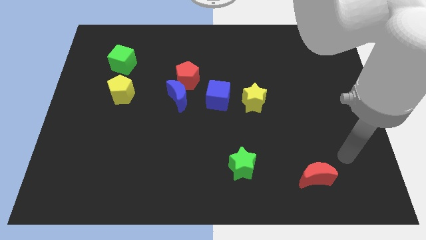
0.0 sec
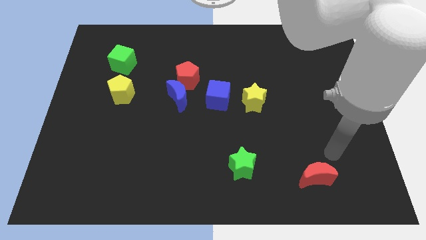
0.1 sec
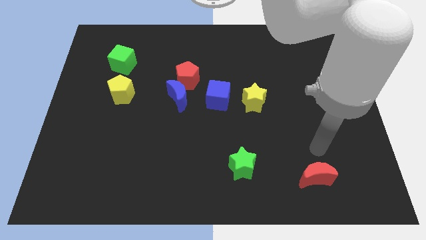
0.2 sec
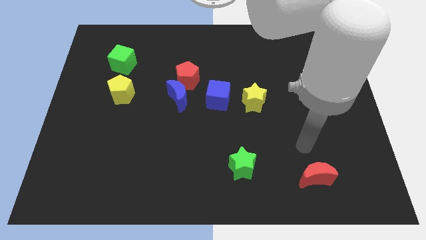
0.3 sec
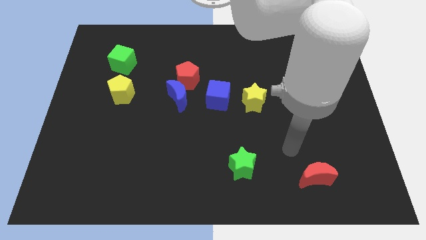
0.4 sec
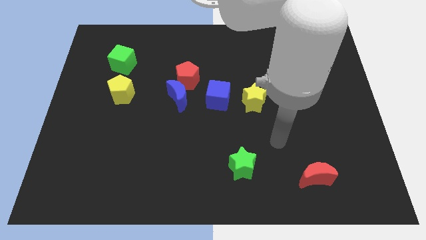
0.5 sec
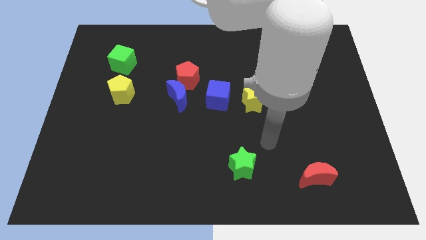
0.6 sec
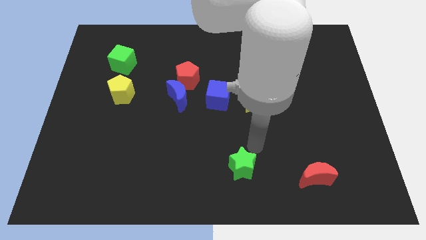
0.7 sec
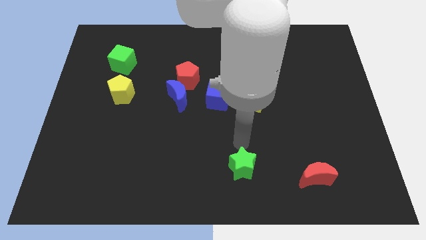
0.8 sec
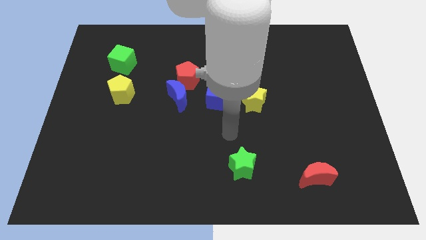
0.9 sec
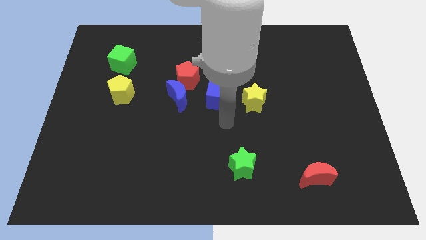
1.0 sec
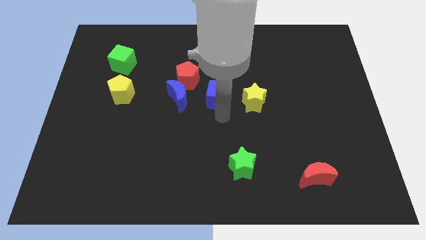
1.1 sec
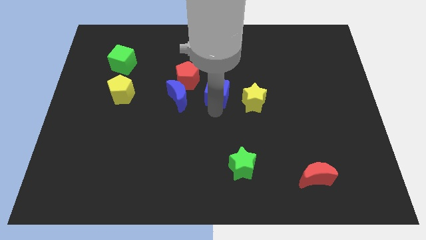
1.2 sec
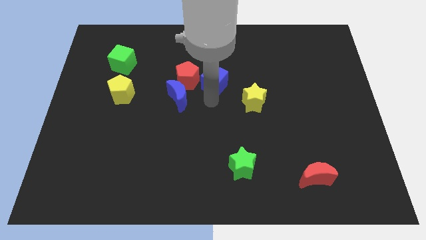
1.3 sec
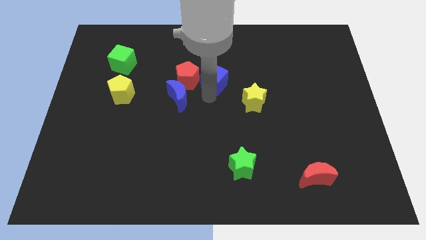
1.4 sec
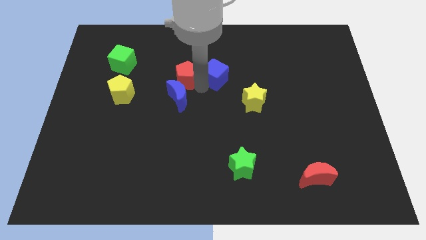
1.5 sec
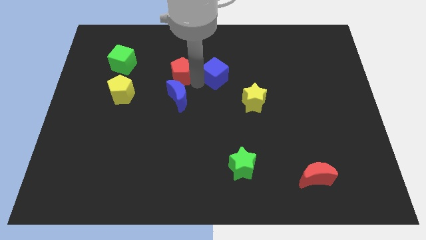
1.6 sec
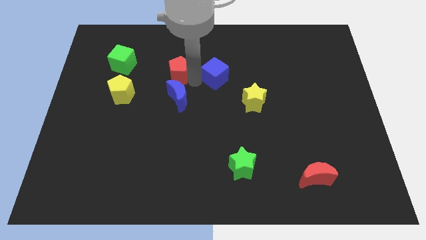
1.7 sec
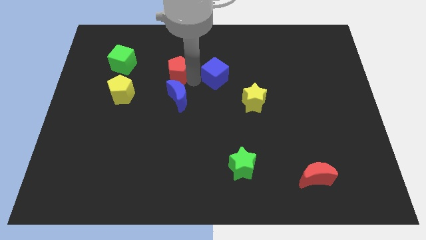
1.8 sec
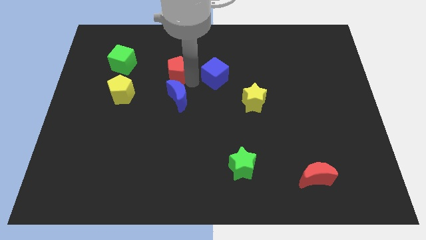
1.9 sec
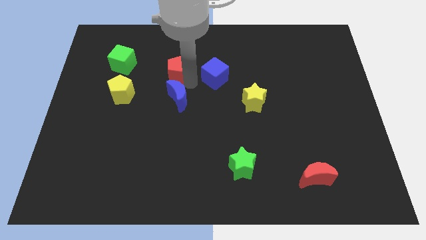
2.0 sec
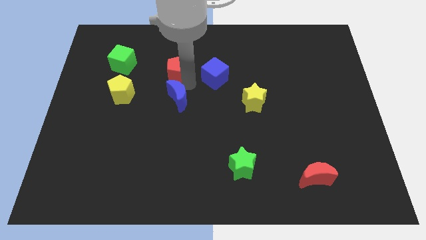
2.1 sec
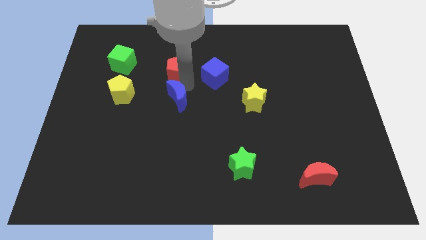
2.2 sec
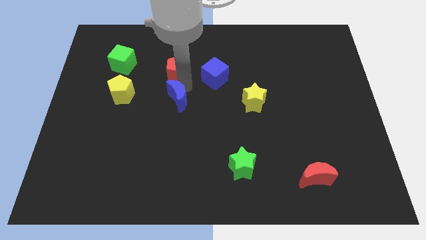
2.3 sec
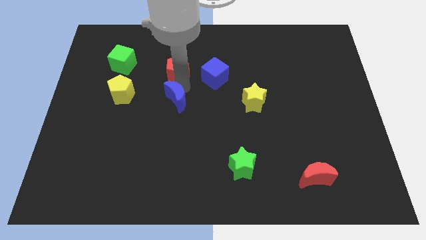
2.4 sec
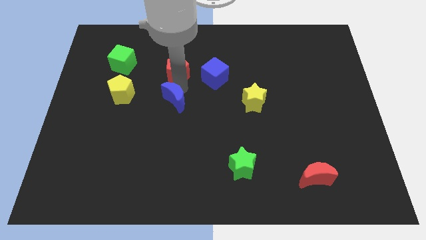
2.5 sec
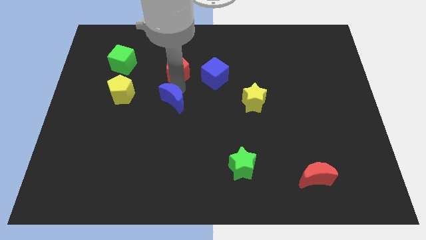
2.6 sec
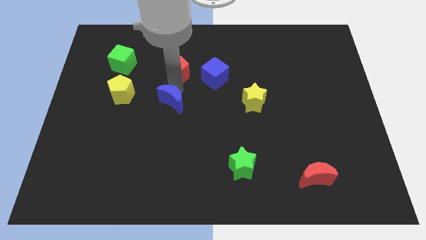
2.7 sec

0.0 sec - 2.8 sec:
separate the blue moon from the red pentagon and blue cube

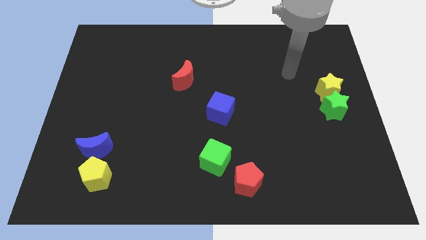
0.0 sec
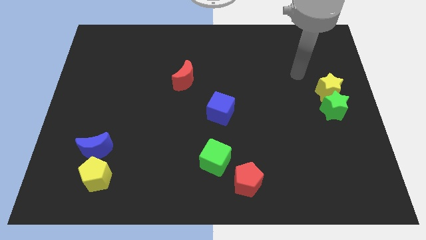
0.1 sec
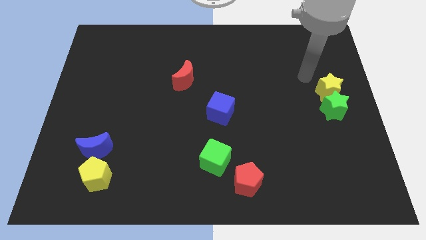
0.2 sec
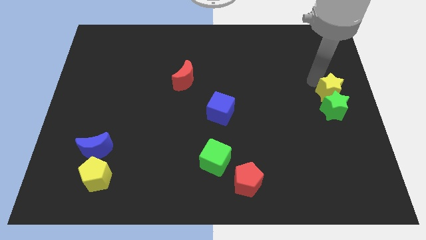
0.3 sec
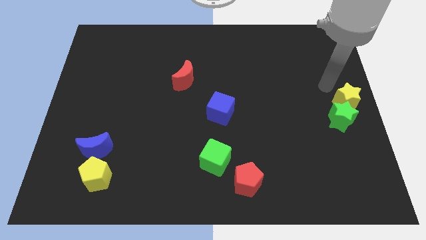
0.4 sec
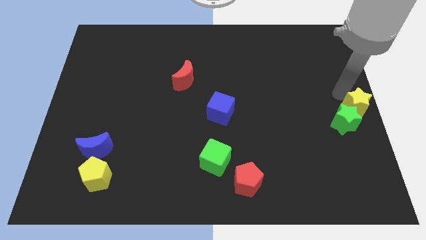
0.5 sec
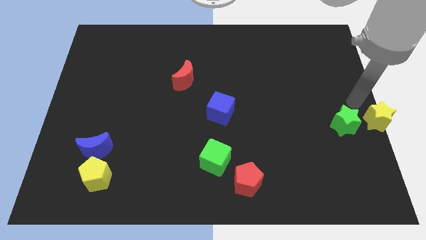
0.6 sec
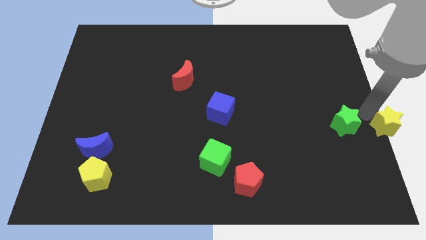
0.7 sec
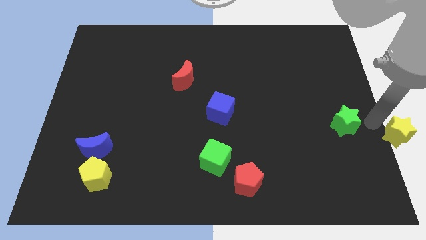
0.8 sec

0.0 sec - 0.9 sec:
separate the green star from the yellow star

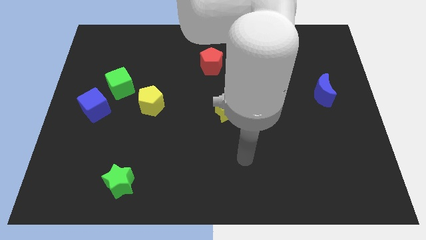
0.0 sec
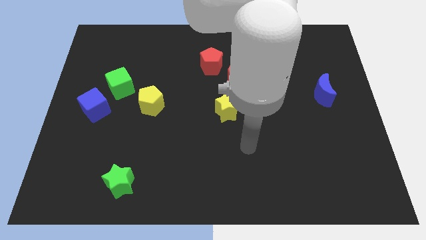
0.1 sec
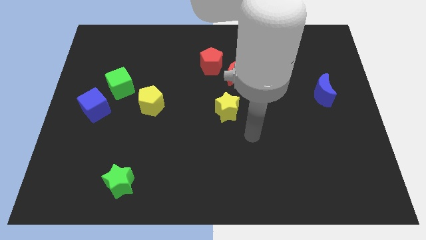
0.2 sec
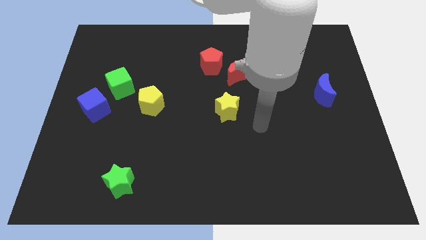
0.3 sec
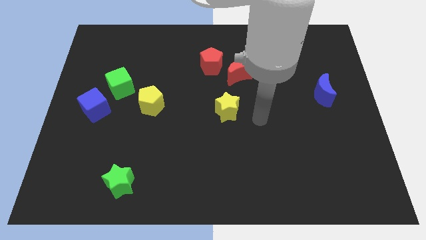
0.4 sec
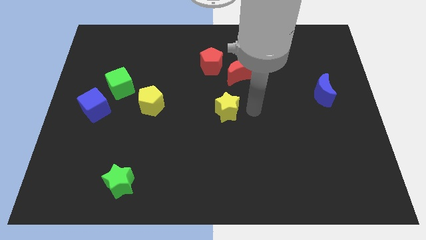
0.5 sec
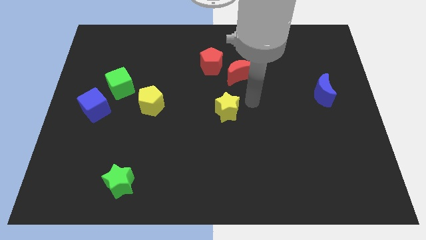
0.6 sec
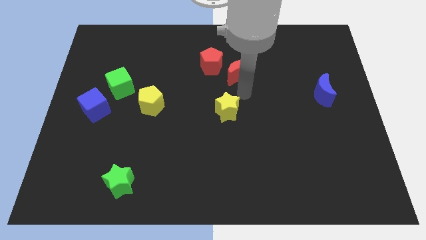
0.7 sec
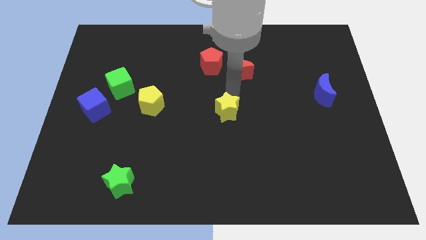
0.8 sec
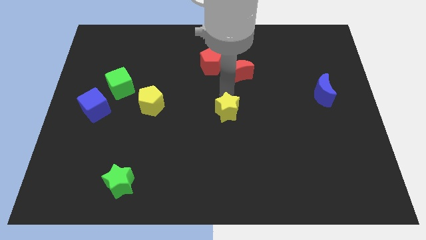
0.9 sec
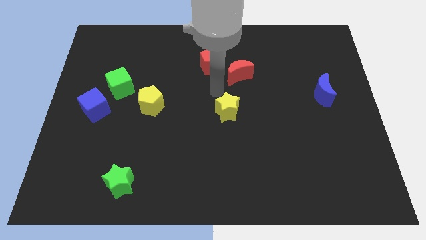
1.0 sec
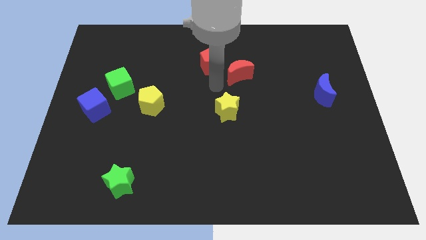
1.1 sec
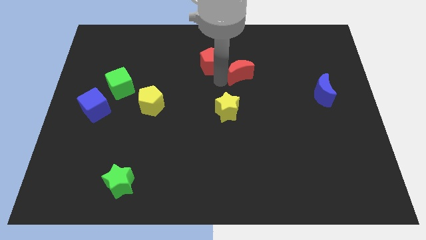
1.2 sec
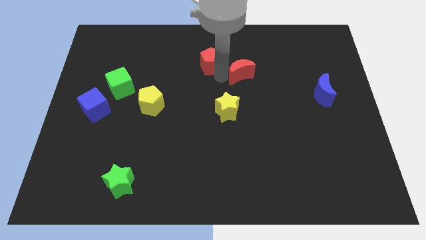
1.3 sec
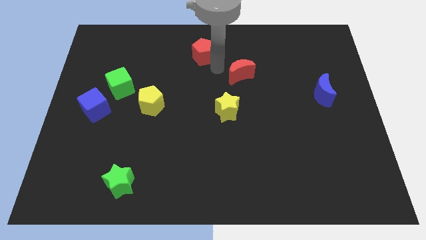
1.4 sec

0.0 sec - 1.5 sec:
pull the red moon apart from the red pentagon

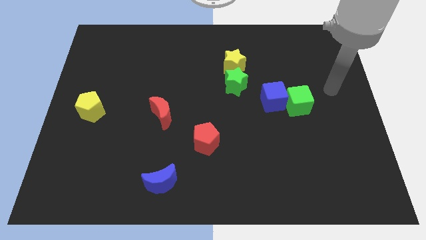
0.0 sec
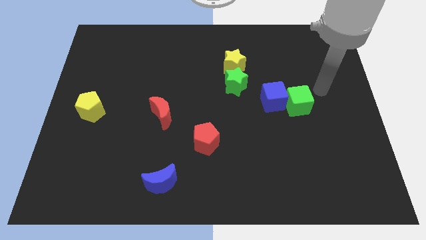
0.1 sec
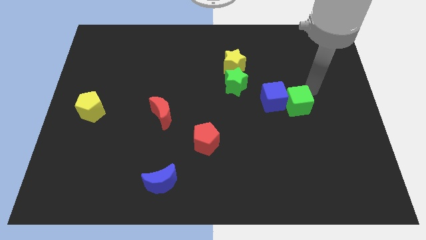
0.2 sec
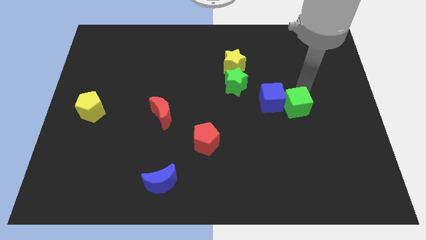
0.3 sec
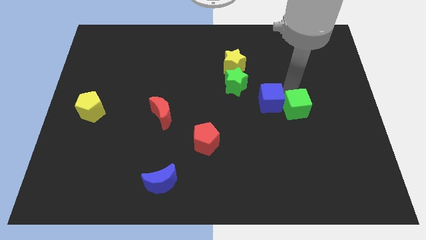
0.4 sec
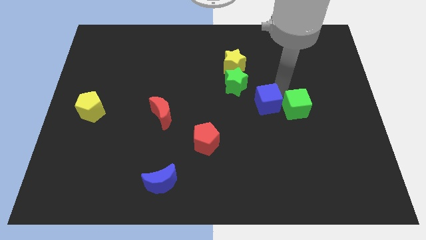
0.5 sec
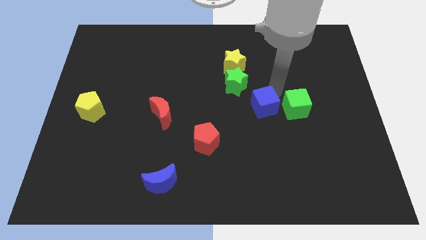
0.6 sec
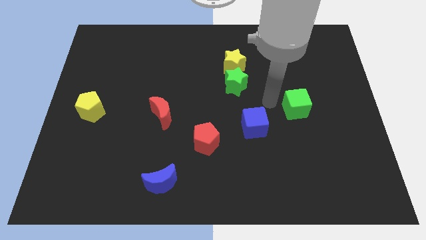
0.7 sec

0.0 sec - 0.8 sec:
move the green cube away from the blue cube

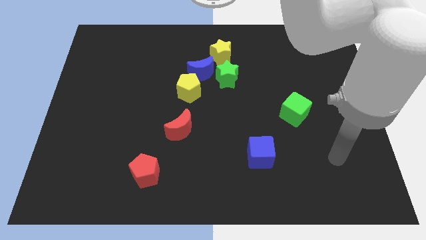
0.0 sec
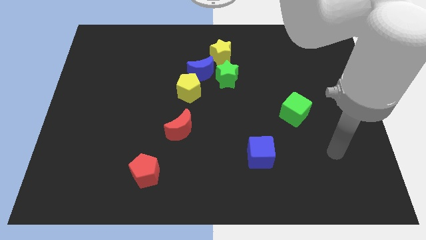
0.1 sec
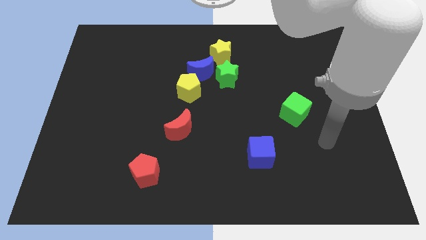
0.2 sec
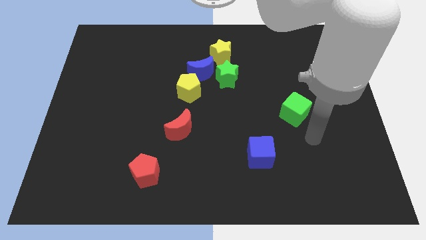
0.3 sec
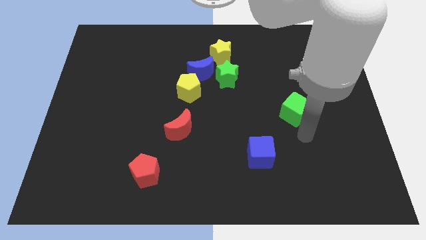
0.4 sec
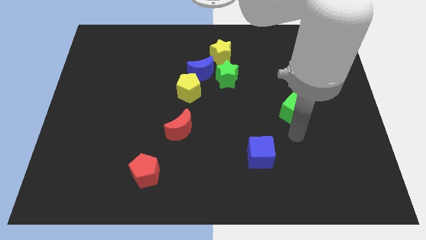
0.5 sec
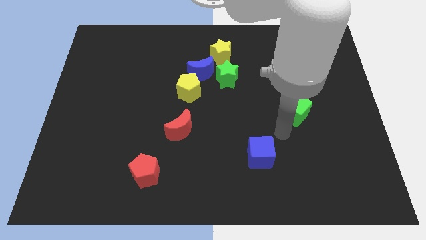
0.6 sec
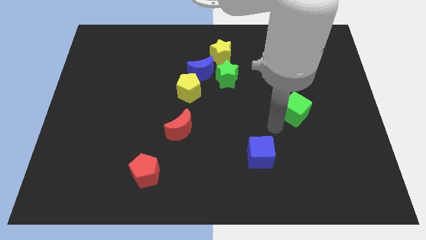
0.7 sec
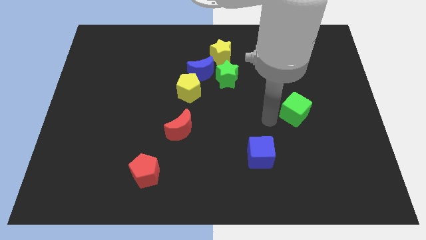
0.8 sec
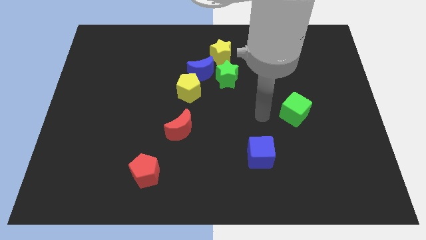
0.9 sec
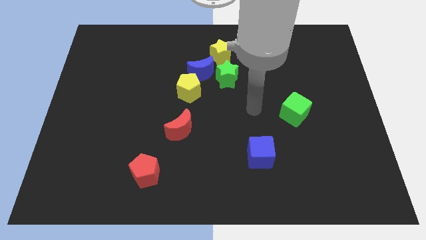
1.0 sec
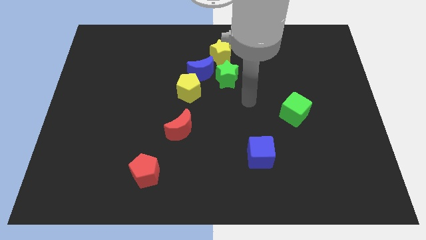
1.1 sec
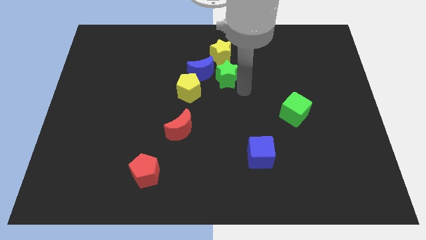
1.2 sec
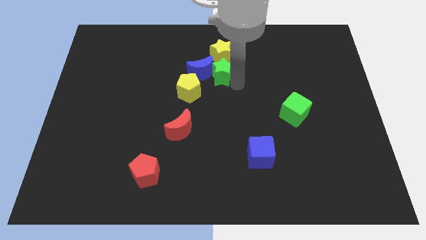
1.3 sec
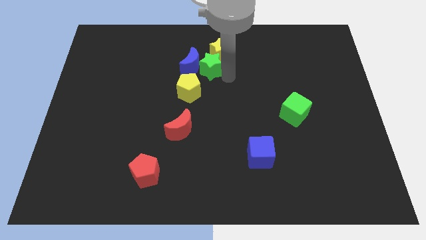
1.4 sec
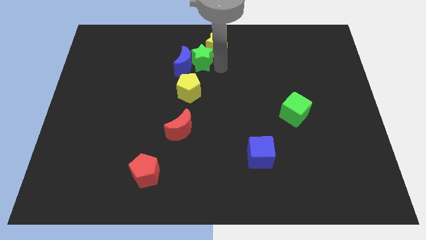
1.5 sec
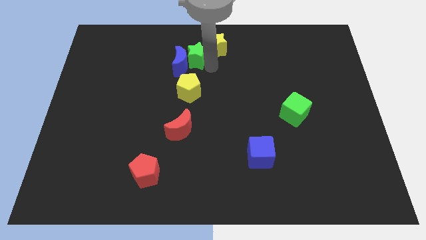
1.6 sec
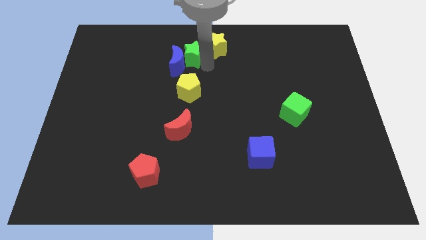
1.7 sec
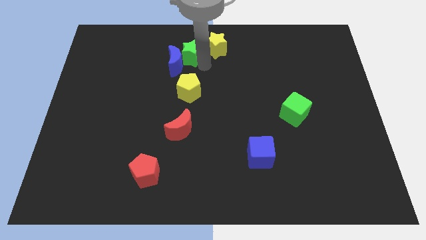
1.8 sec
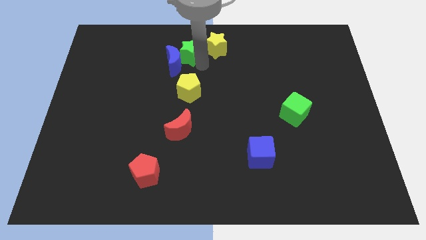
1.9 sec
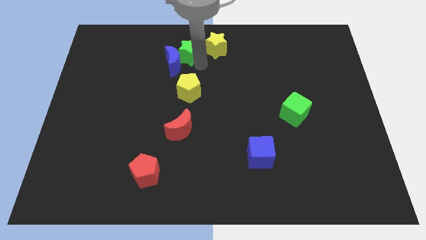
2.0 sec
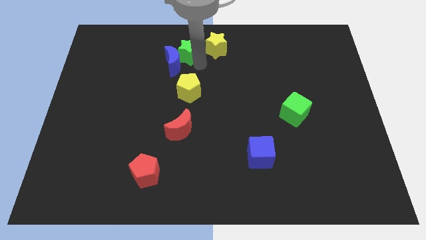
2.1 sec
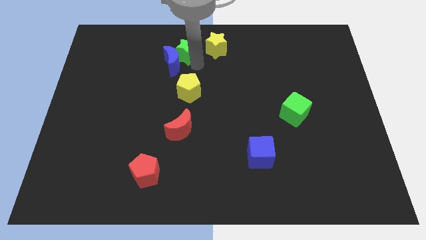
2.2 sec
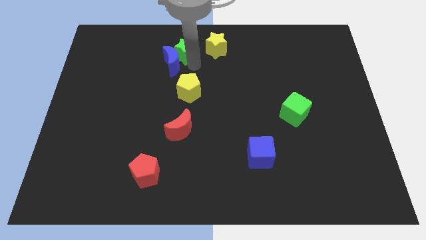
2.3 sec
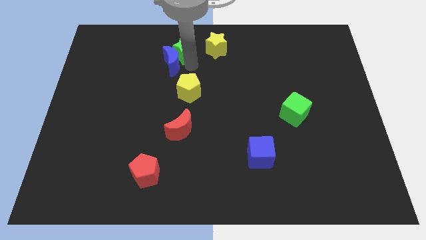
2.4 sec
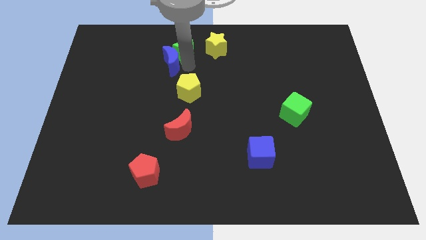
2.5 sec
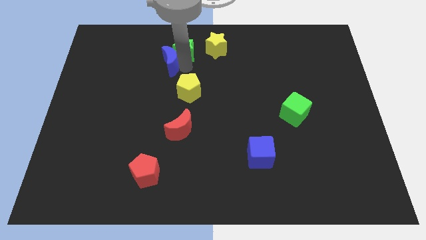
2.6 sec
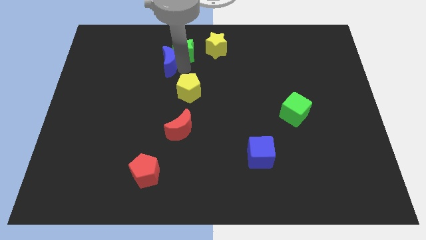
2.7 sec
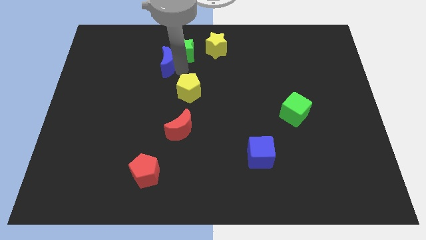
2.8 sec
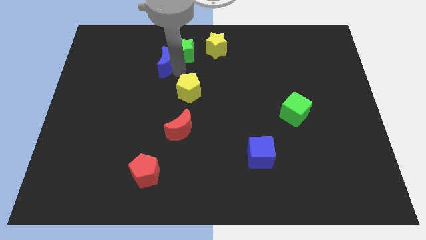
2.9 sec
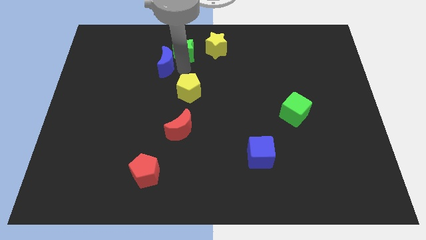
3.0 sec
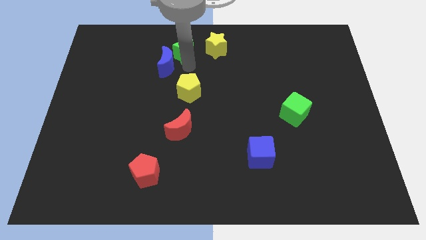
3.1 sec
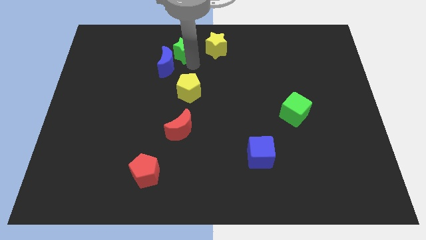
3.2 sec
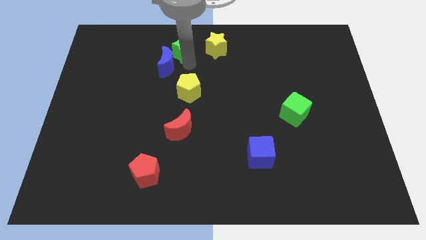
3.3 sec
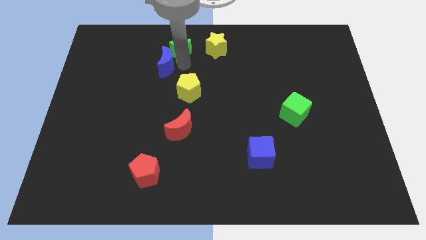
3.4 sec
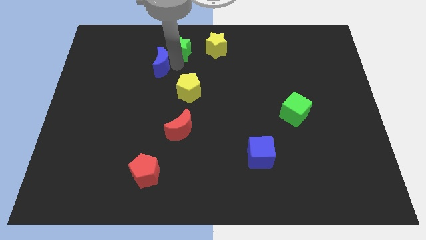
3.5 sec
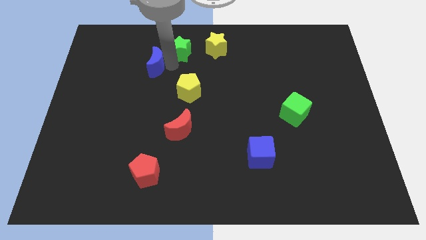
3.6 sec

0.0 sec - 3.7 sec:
pull the blue moon apart from the group of blocks
